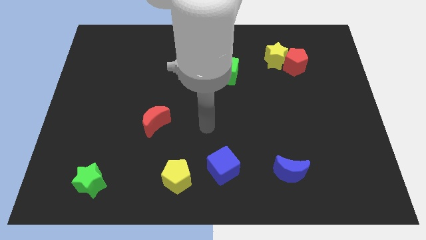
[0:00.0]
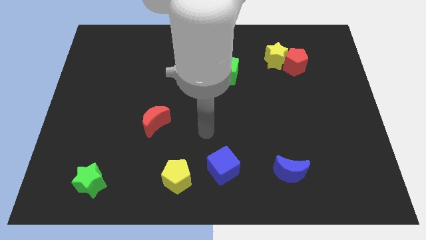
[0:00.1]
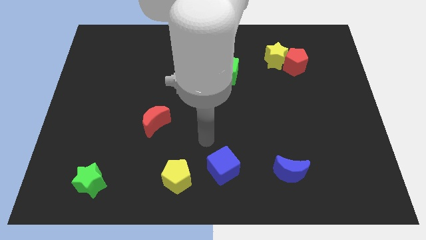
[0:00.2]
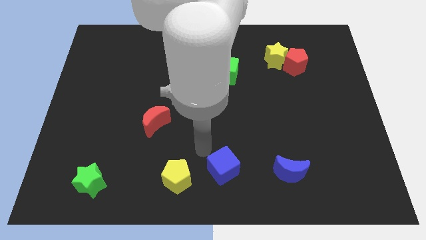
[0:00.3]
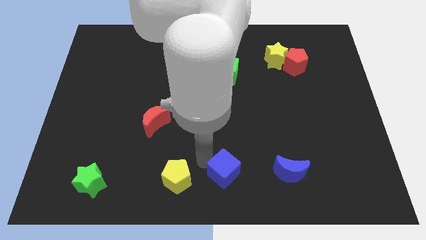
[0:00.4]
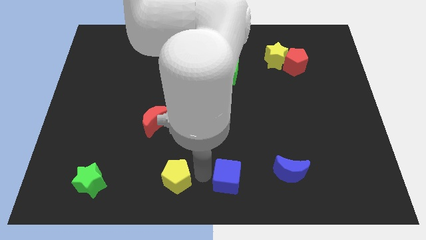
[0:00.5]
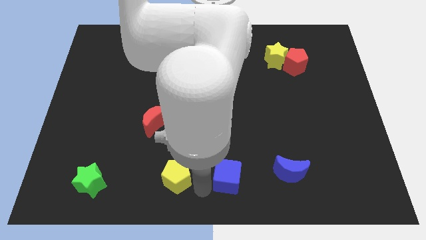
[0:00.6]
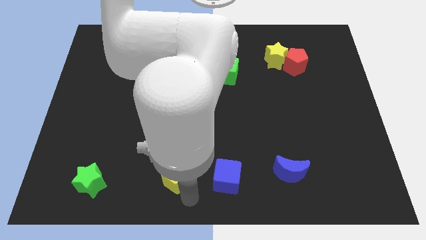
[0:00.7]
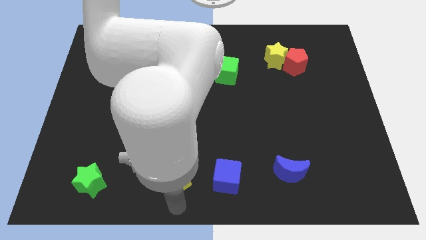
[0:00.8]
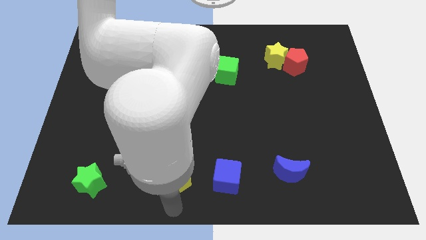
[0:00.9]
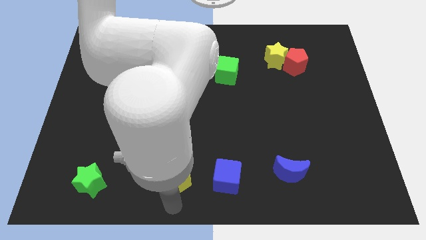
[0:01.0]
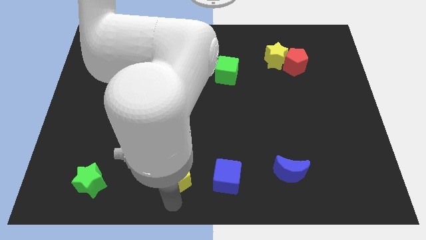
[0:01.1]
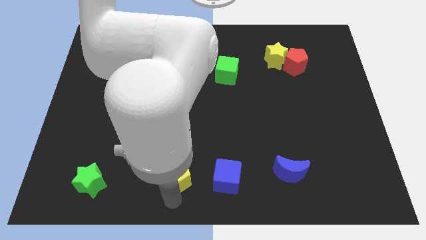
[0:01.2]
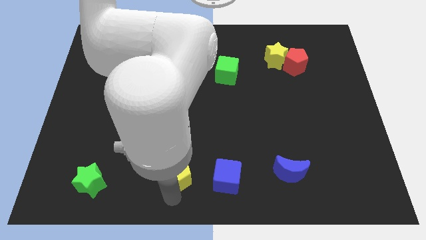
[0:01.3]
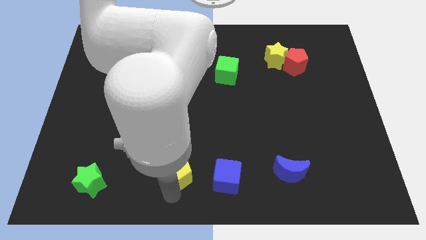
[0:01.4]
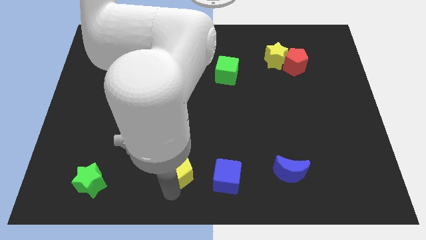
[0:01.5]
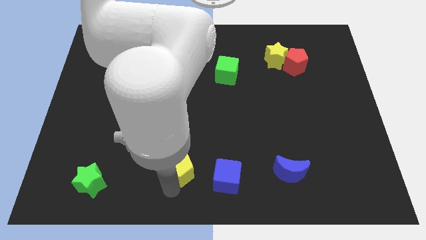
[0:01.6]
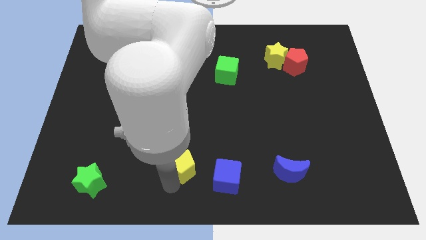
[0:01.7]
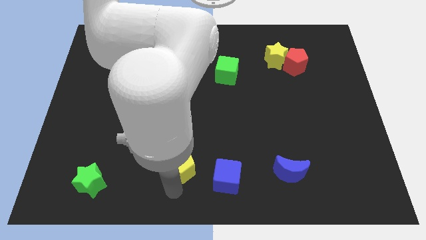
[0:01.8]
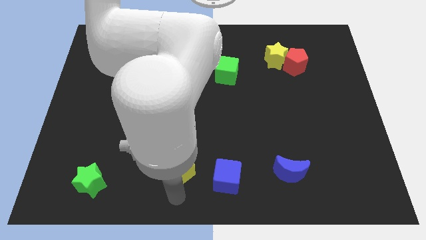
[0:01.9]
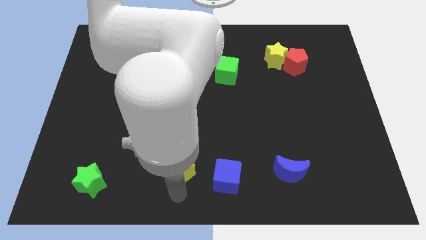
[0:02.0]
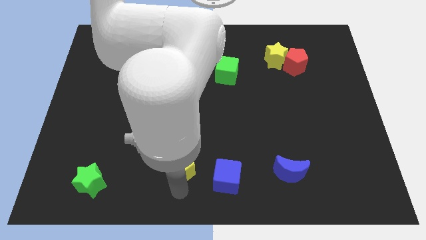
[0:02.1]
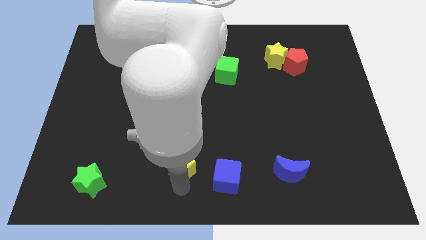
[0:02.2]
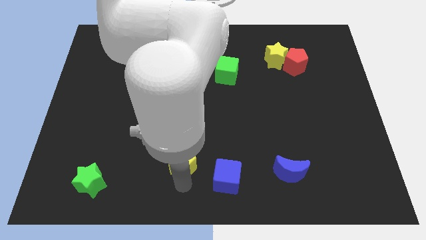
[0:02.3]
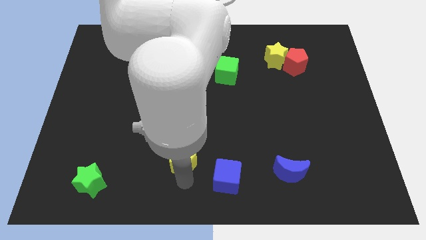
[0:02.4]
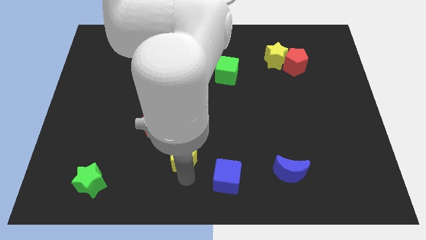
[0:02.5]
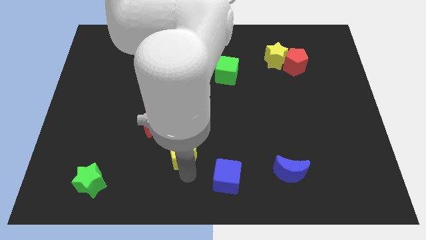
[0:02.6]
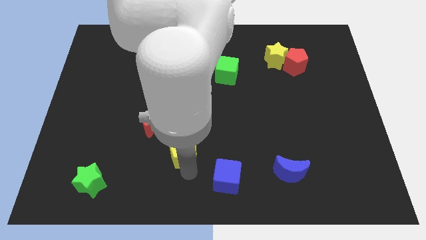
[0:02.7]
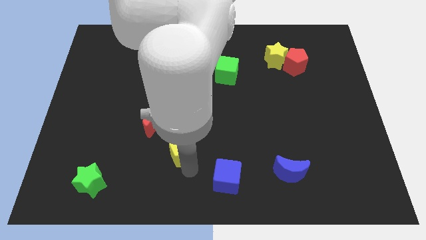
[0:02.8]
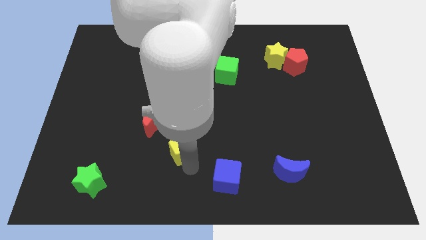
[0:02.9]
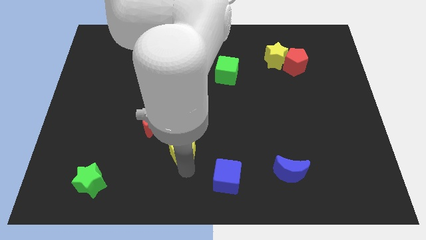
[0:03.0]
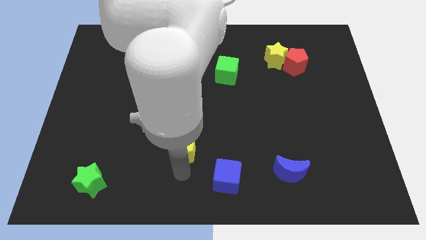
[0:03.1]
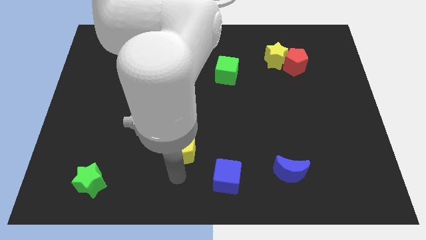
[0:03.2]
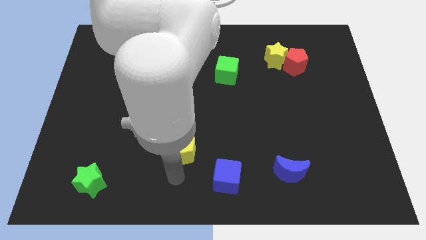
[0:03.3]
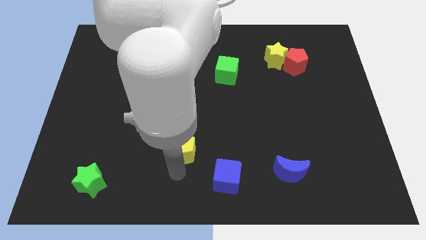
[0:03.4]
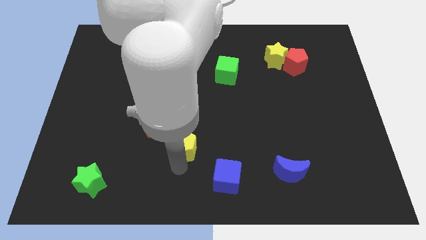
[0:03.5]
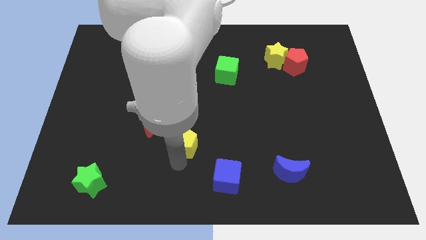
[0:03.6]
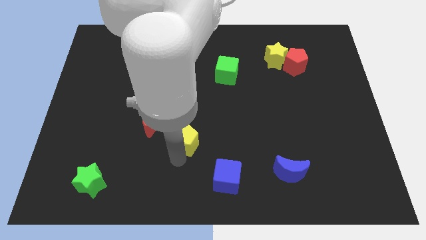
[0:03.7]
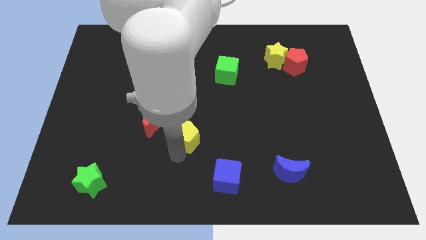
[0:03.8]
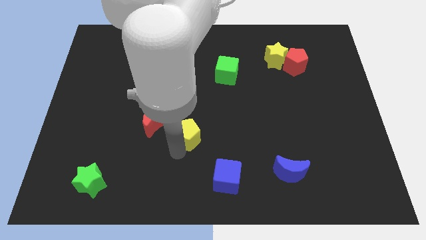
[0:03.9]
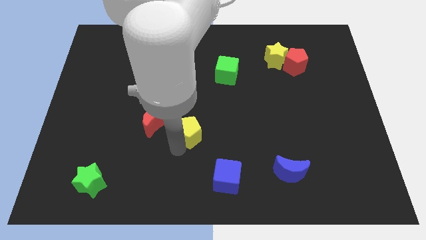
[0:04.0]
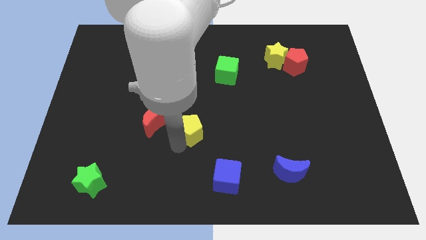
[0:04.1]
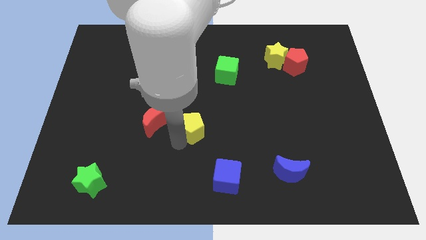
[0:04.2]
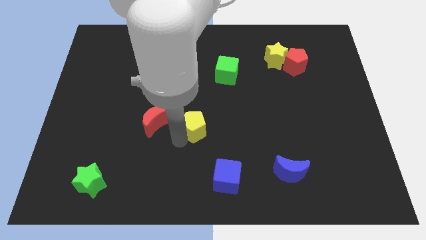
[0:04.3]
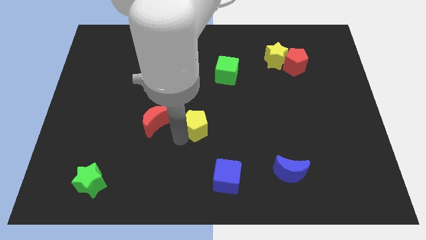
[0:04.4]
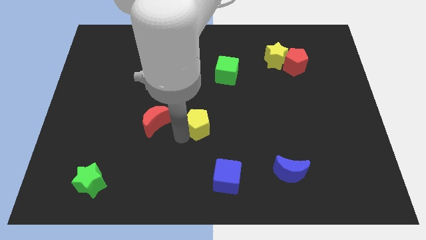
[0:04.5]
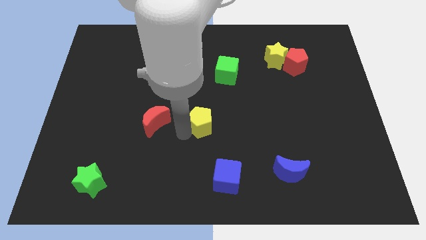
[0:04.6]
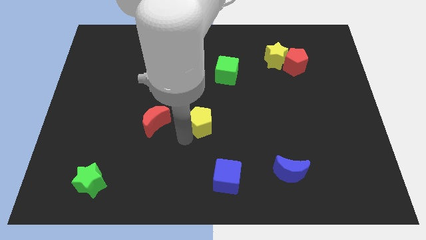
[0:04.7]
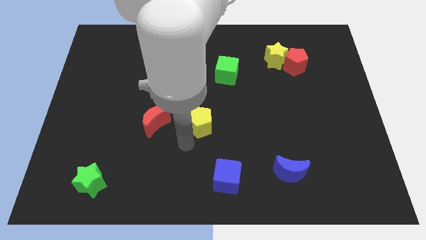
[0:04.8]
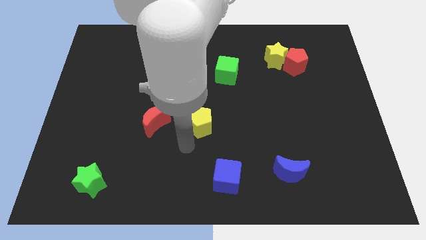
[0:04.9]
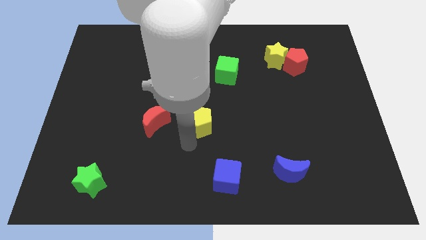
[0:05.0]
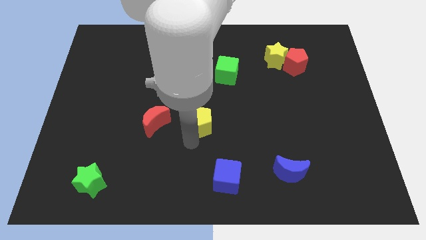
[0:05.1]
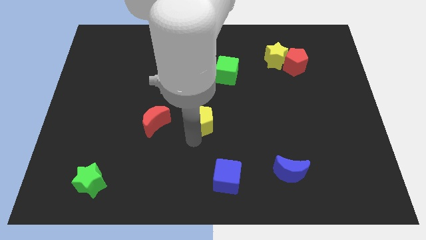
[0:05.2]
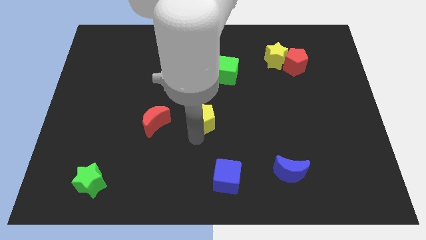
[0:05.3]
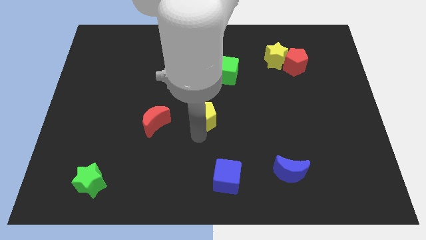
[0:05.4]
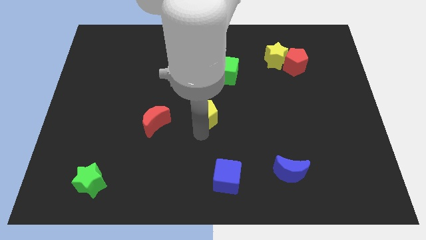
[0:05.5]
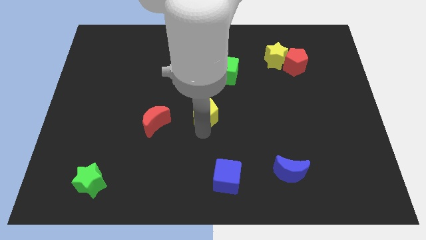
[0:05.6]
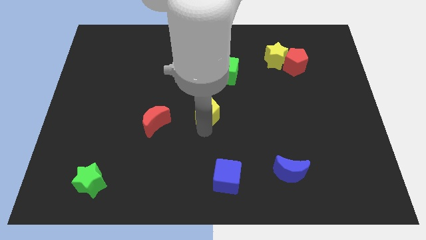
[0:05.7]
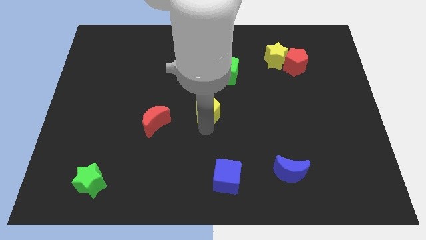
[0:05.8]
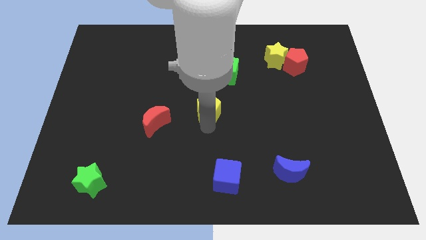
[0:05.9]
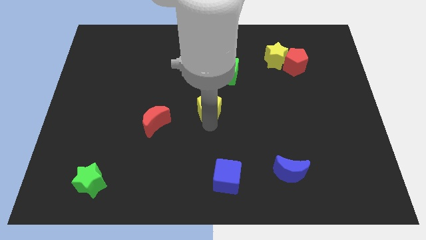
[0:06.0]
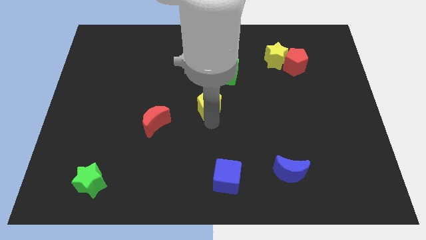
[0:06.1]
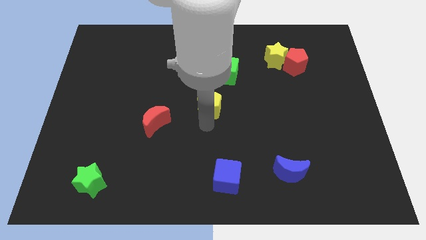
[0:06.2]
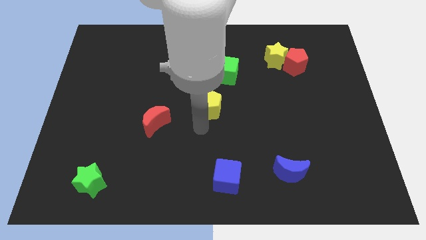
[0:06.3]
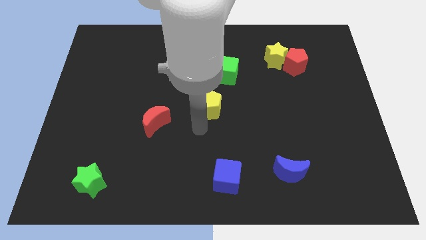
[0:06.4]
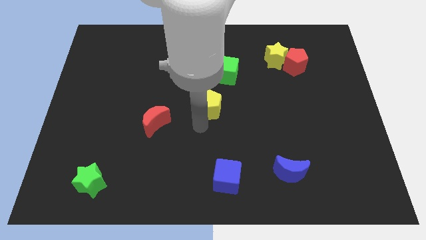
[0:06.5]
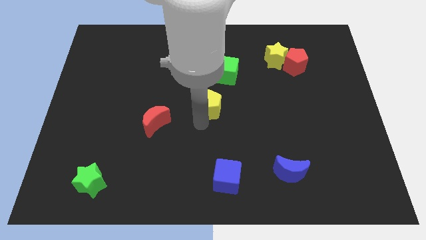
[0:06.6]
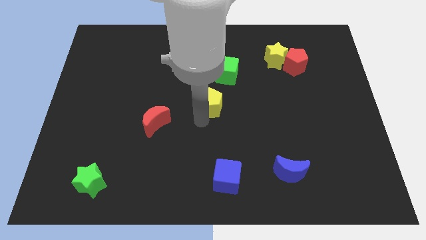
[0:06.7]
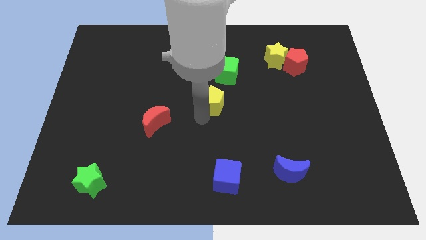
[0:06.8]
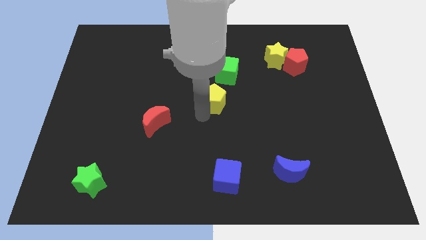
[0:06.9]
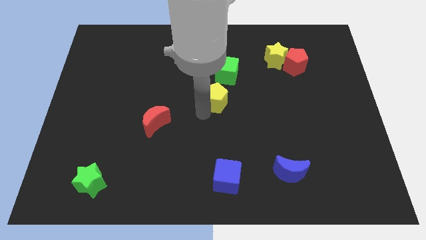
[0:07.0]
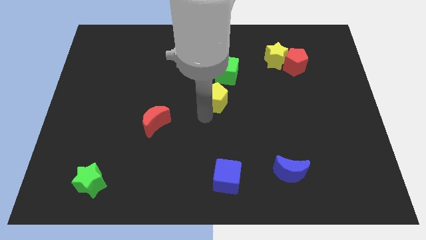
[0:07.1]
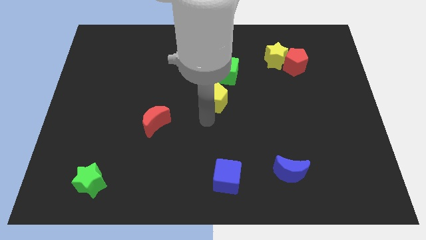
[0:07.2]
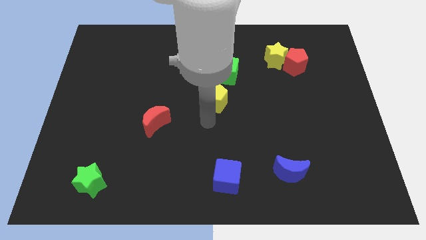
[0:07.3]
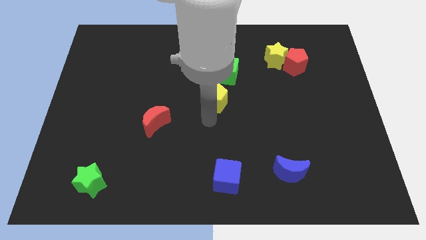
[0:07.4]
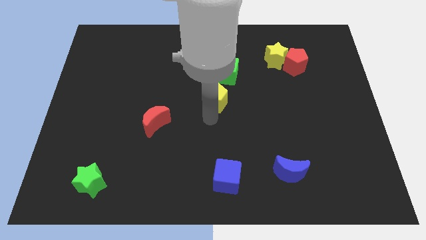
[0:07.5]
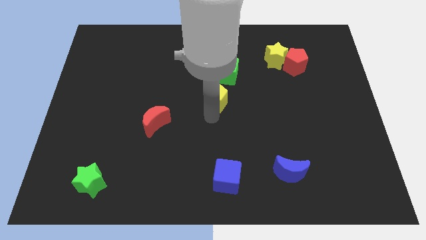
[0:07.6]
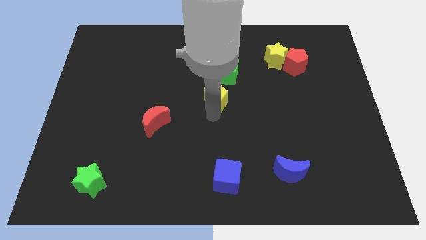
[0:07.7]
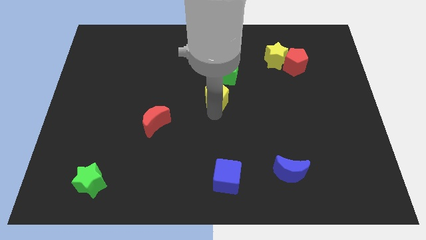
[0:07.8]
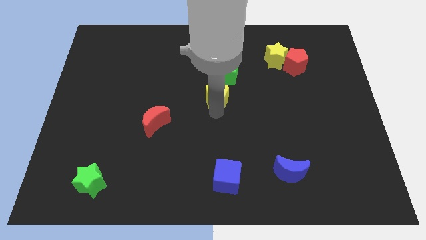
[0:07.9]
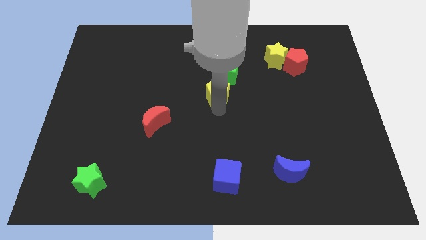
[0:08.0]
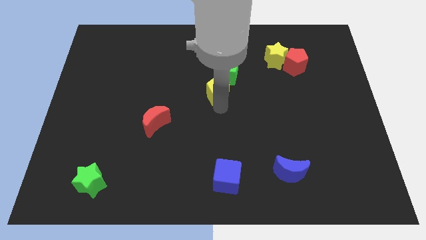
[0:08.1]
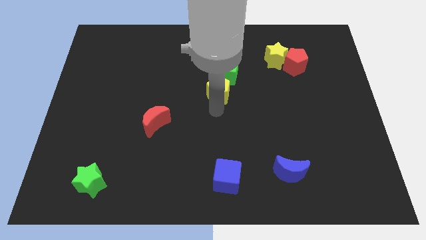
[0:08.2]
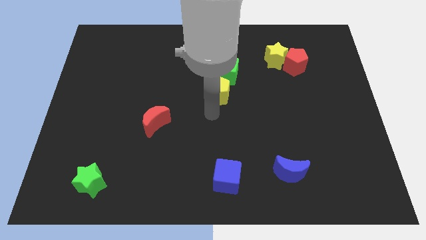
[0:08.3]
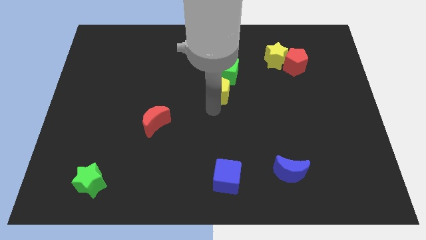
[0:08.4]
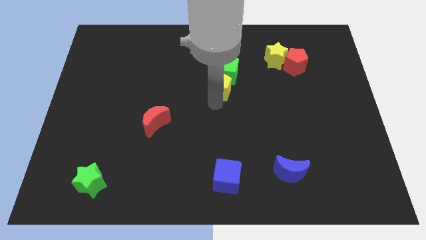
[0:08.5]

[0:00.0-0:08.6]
move the yellow pentagon next to the green cube

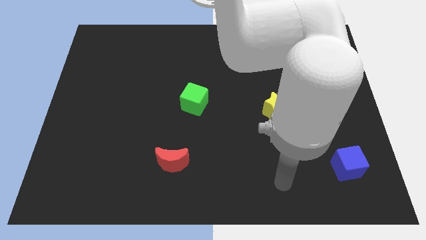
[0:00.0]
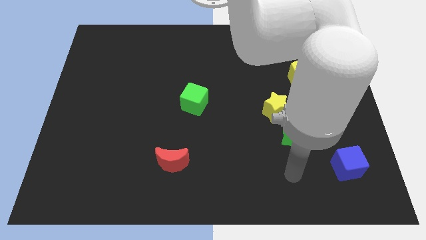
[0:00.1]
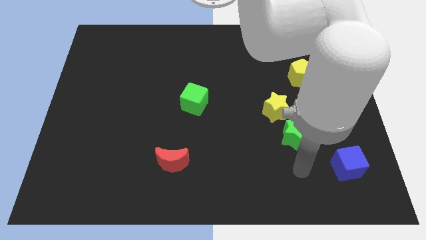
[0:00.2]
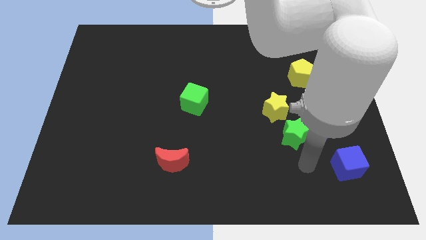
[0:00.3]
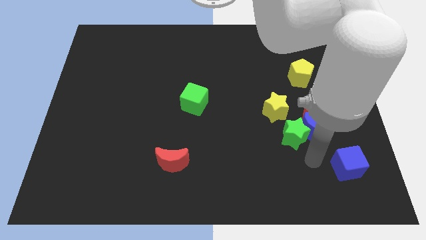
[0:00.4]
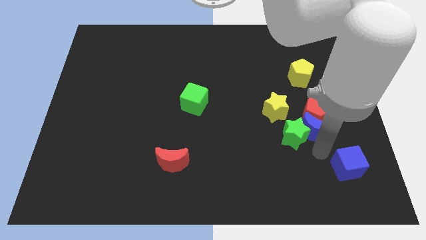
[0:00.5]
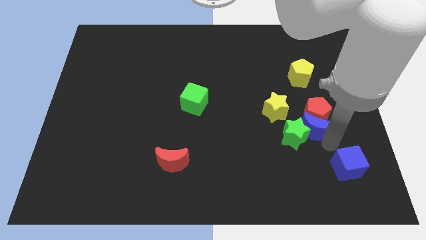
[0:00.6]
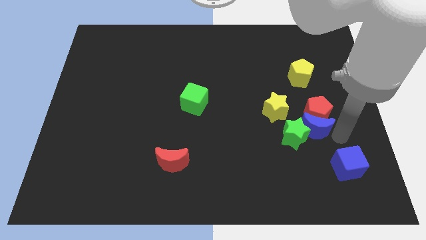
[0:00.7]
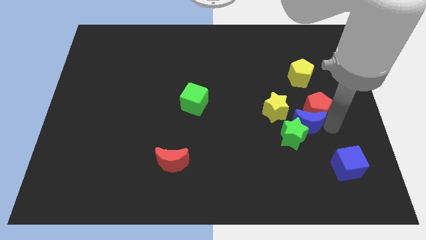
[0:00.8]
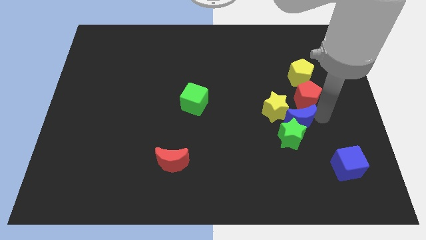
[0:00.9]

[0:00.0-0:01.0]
move the blue moon to the yellow star
